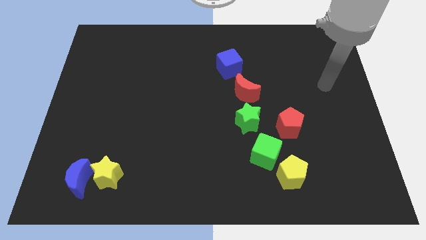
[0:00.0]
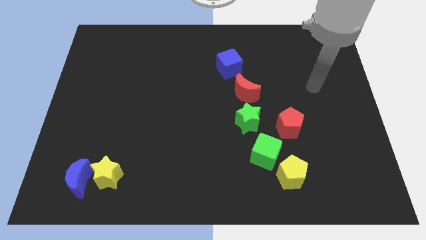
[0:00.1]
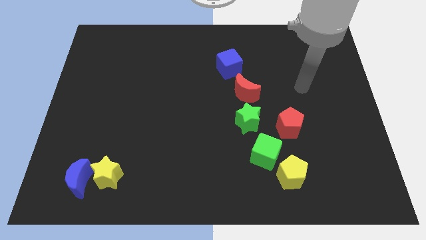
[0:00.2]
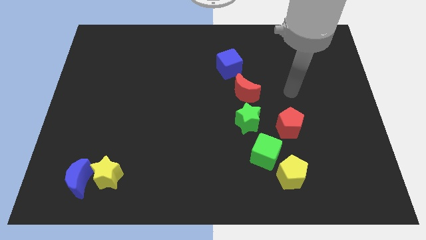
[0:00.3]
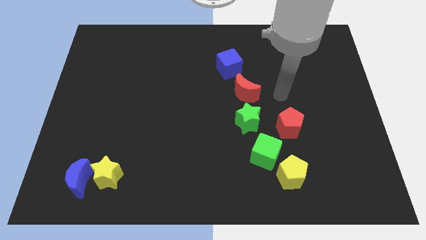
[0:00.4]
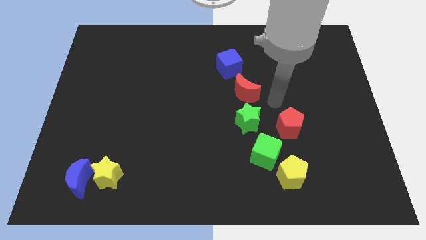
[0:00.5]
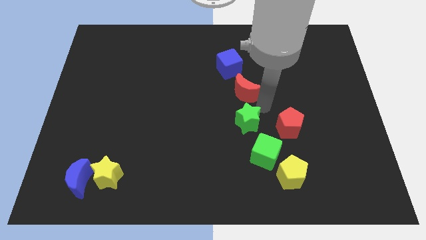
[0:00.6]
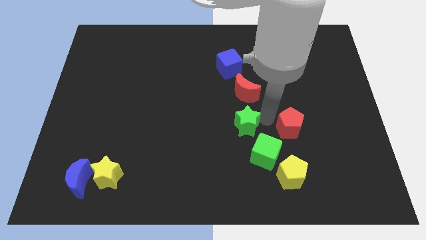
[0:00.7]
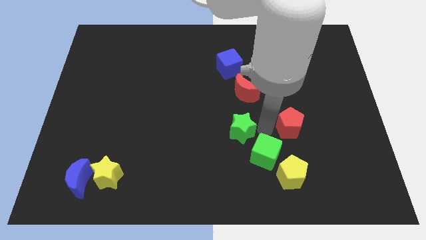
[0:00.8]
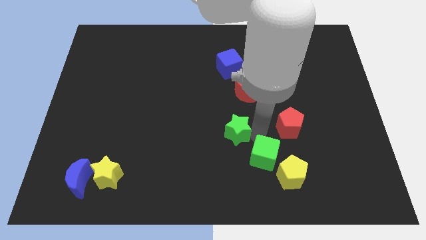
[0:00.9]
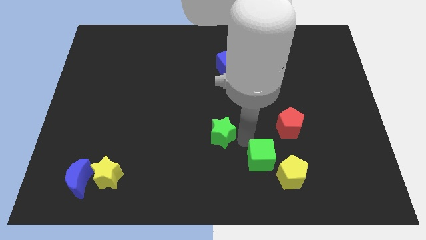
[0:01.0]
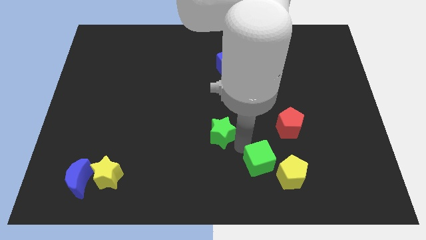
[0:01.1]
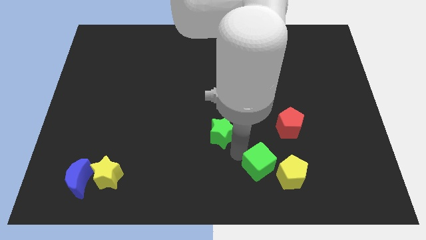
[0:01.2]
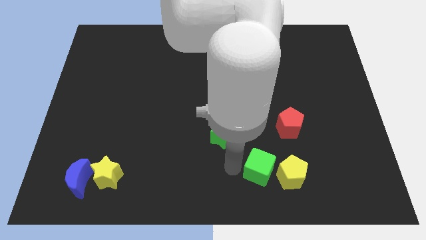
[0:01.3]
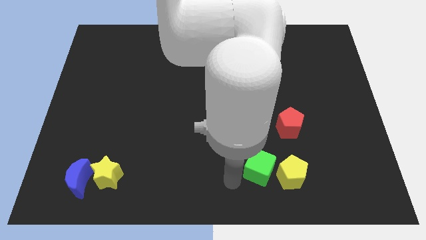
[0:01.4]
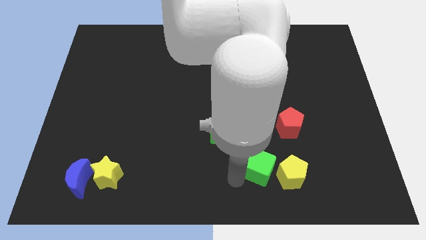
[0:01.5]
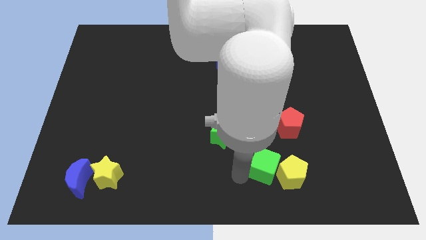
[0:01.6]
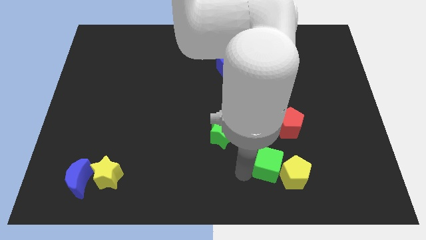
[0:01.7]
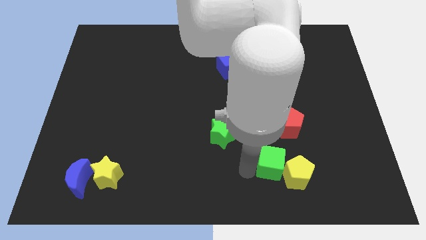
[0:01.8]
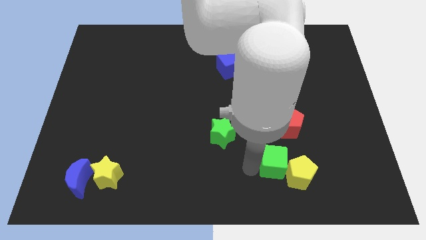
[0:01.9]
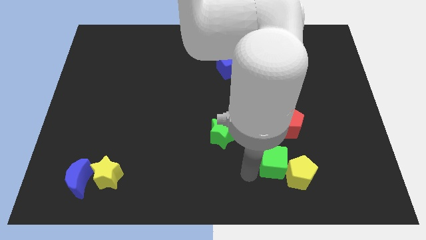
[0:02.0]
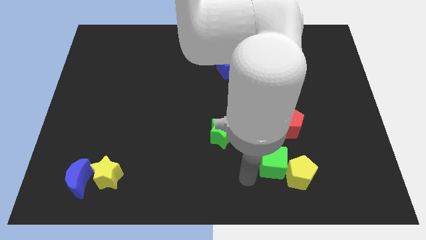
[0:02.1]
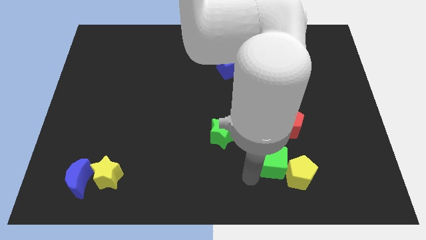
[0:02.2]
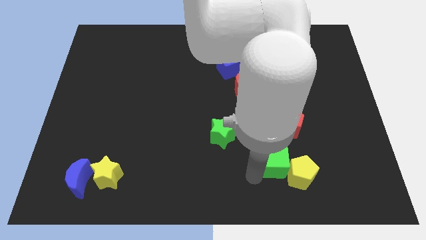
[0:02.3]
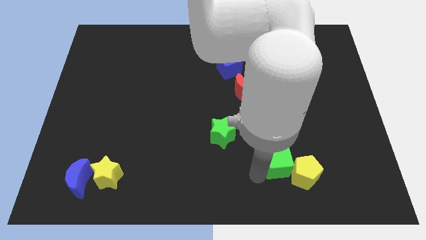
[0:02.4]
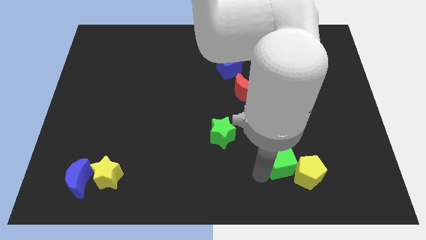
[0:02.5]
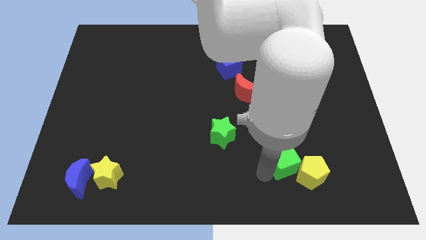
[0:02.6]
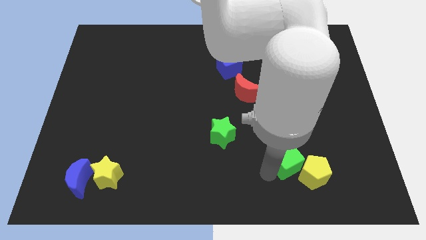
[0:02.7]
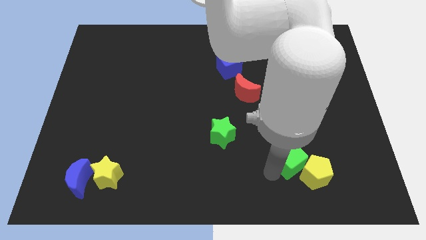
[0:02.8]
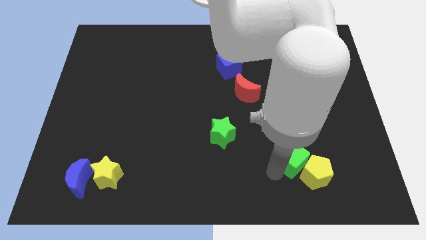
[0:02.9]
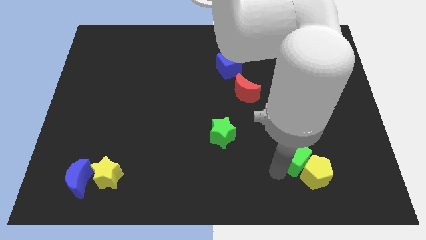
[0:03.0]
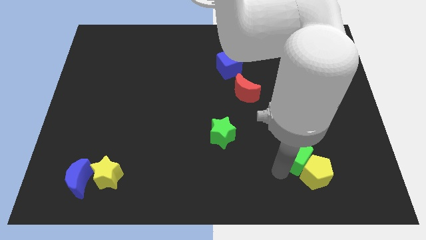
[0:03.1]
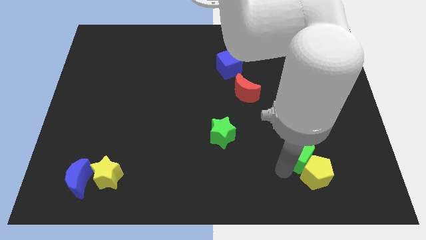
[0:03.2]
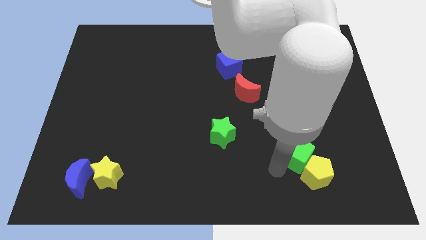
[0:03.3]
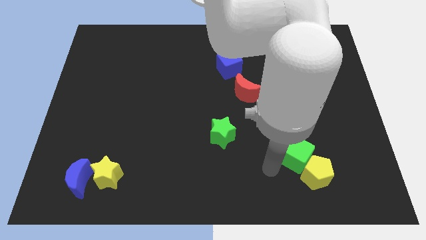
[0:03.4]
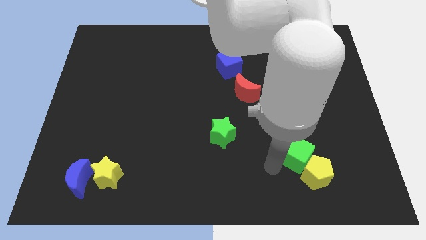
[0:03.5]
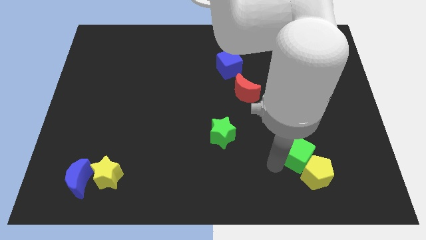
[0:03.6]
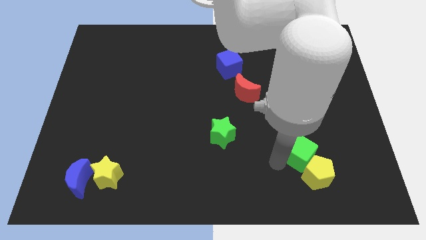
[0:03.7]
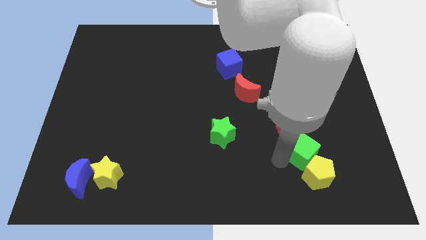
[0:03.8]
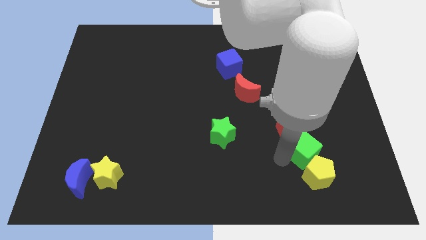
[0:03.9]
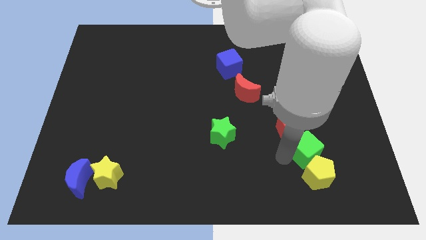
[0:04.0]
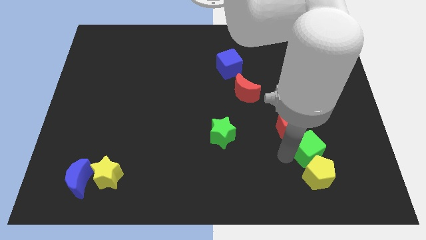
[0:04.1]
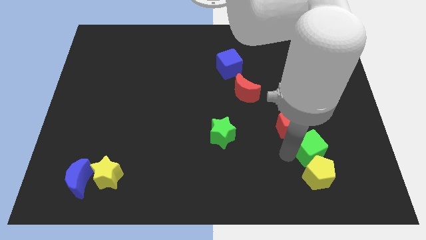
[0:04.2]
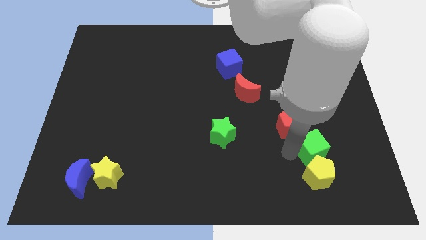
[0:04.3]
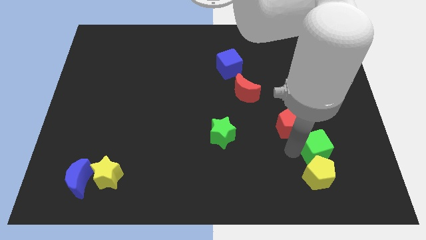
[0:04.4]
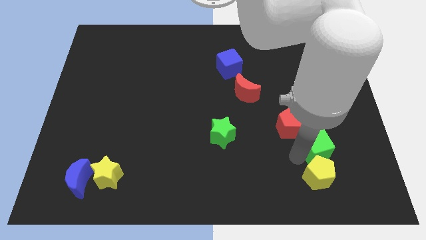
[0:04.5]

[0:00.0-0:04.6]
slightly slide the green cube upwards and right diagonally

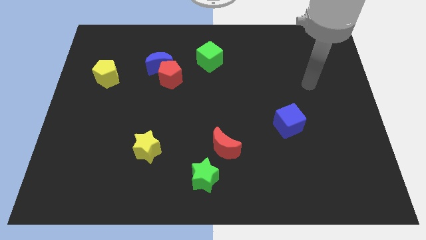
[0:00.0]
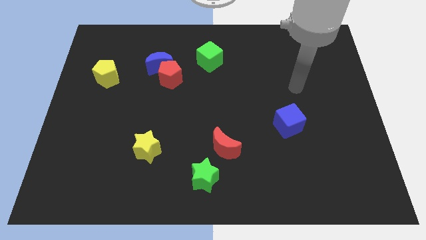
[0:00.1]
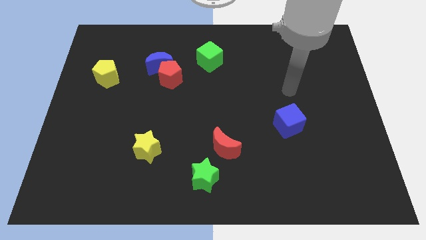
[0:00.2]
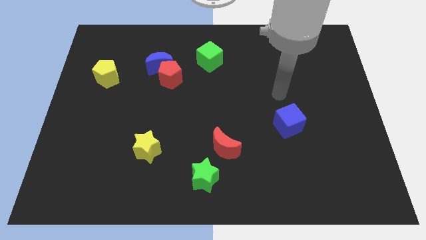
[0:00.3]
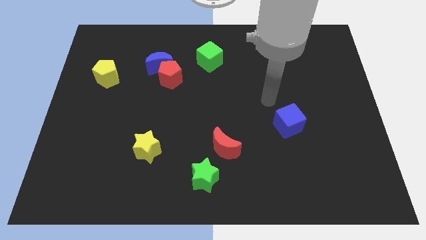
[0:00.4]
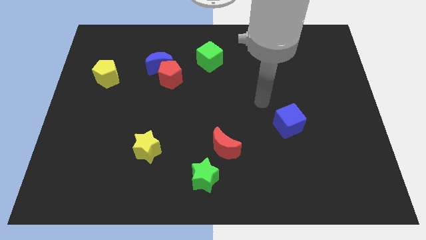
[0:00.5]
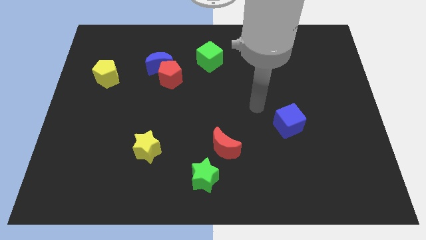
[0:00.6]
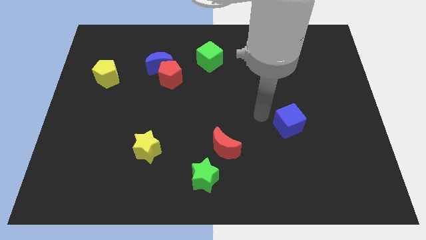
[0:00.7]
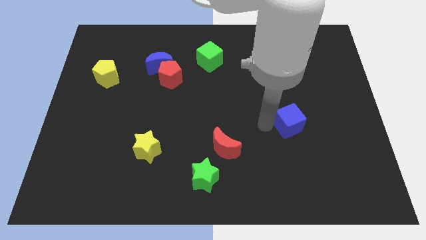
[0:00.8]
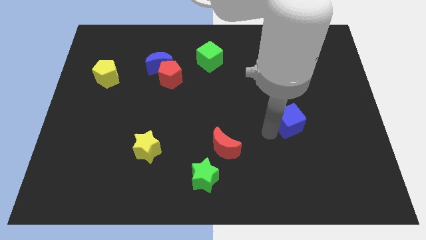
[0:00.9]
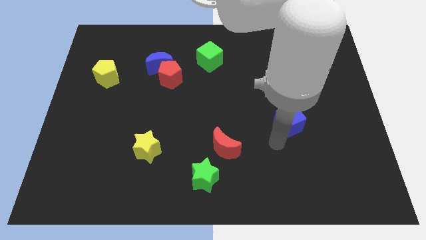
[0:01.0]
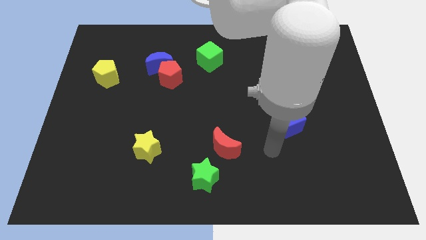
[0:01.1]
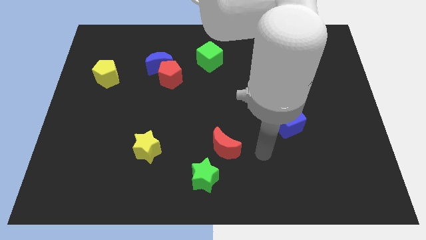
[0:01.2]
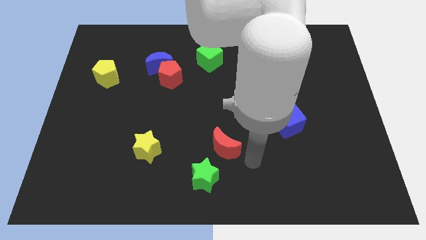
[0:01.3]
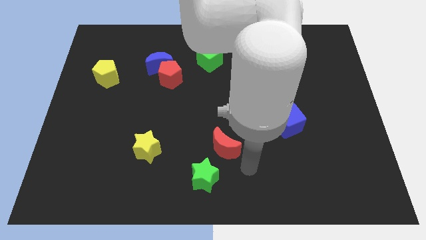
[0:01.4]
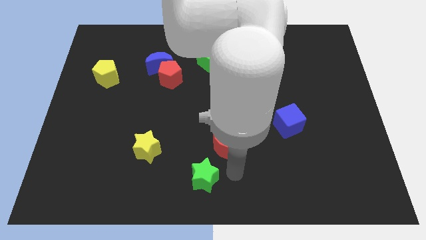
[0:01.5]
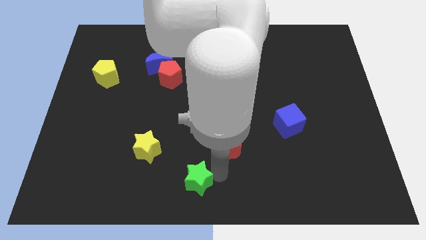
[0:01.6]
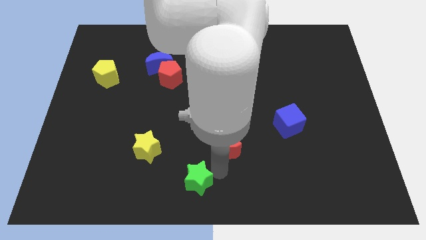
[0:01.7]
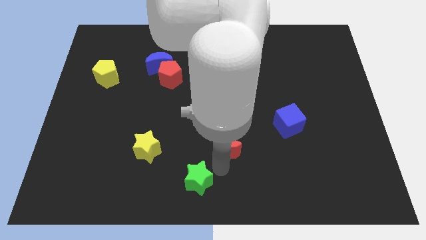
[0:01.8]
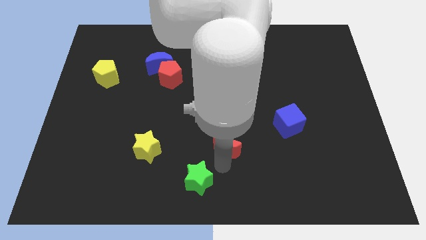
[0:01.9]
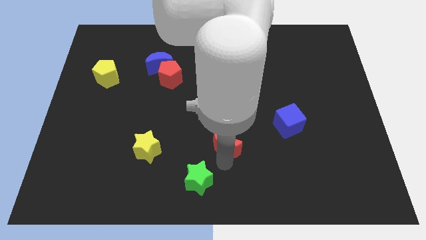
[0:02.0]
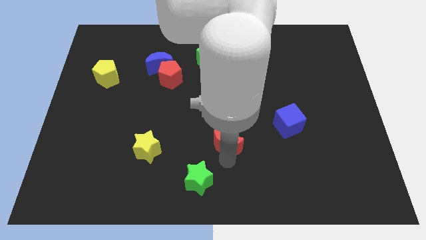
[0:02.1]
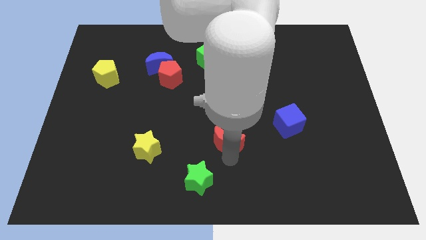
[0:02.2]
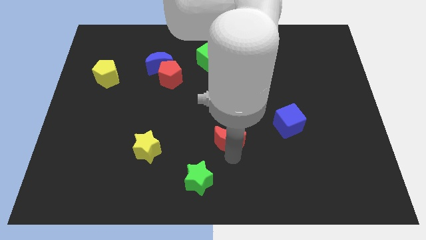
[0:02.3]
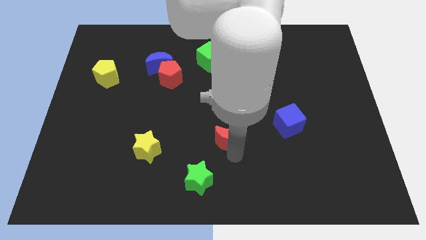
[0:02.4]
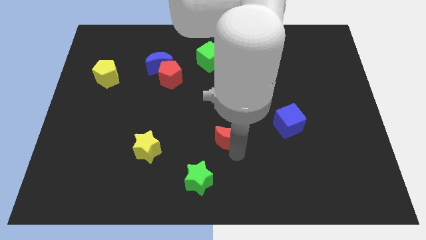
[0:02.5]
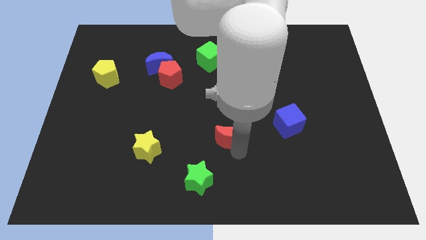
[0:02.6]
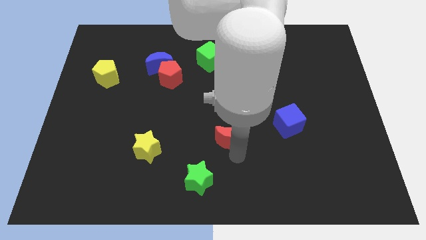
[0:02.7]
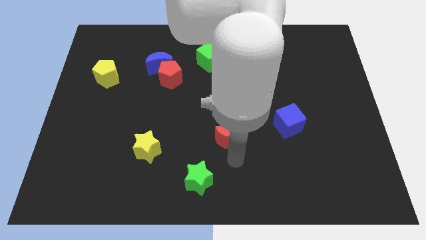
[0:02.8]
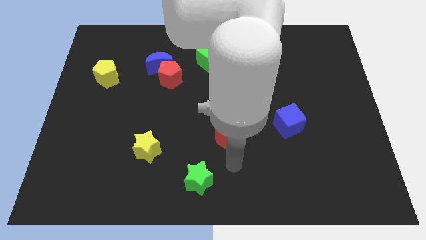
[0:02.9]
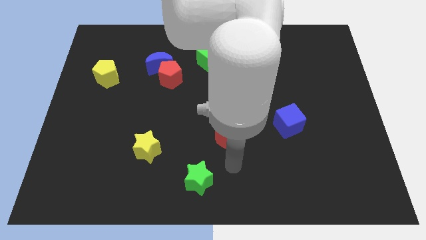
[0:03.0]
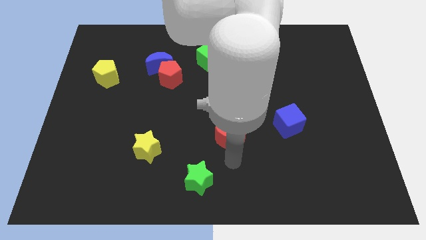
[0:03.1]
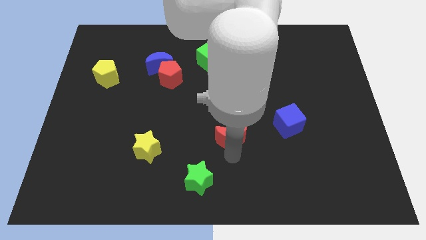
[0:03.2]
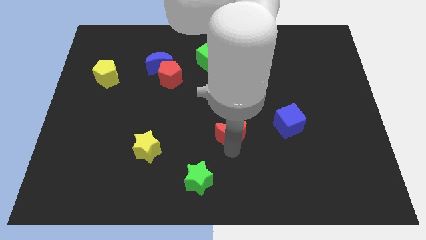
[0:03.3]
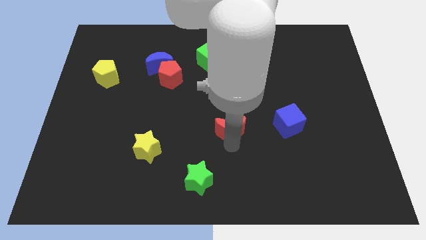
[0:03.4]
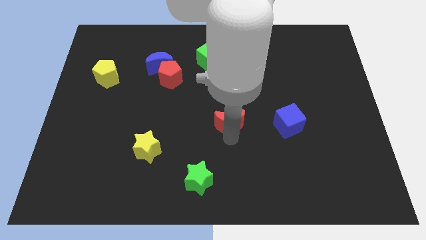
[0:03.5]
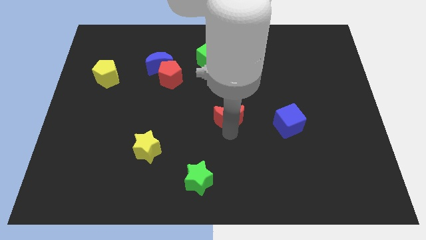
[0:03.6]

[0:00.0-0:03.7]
move the red moon a little up
